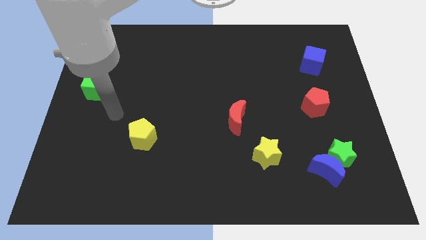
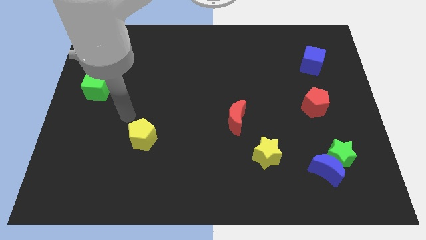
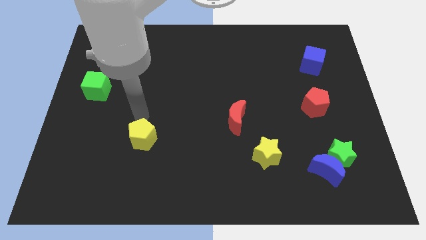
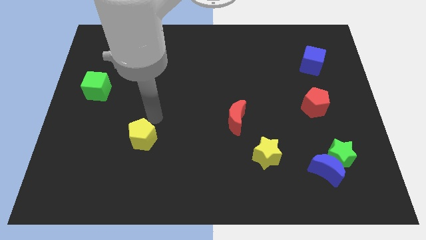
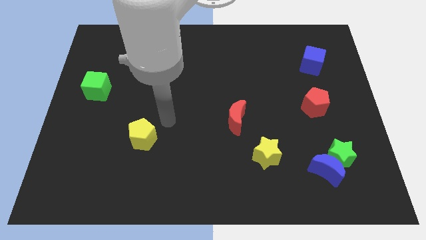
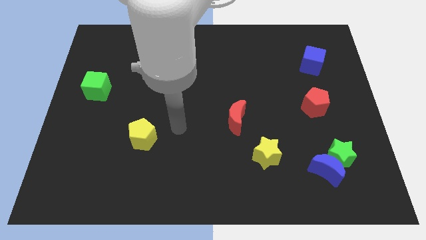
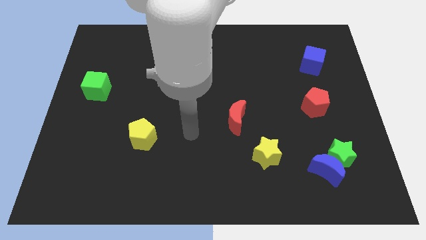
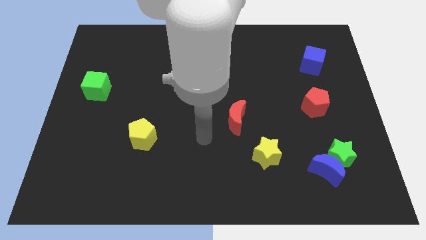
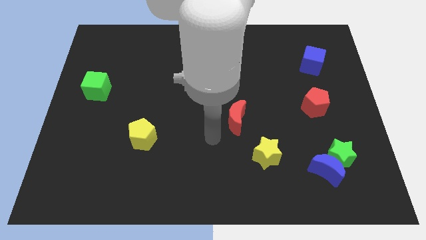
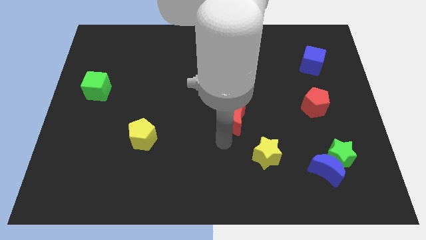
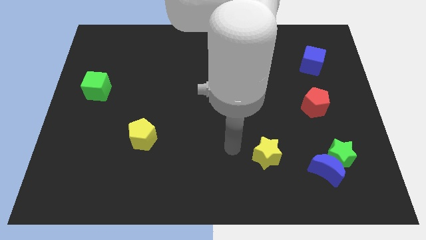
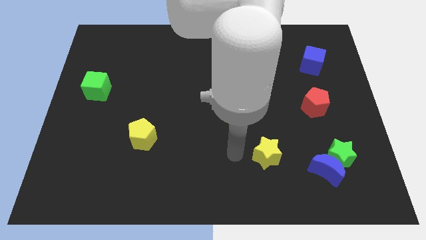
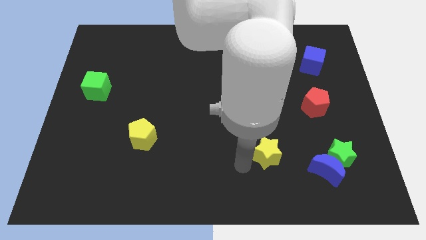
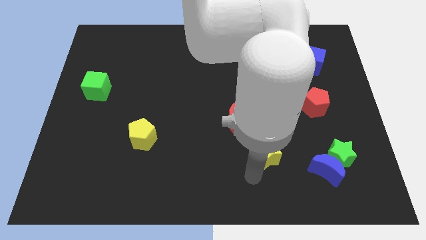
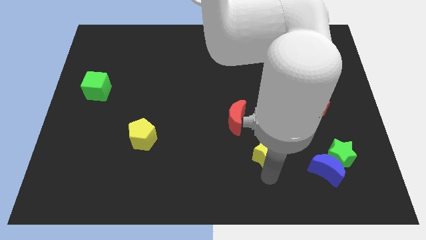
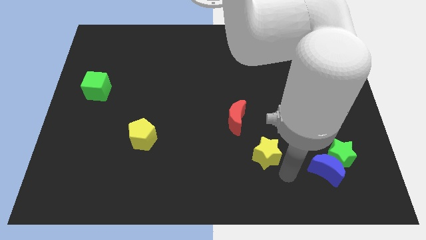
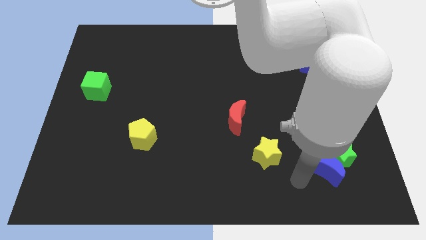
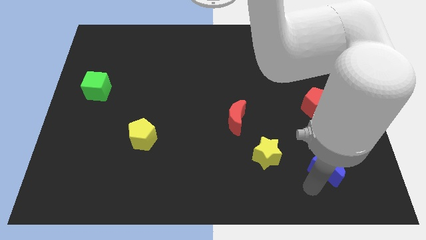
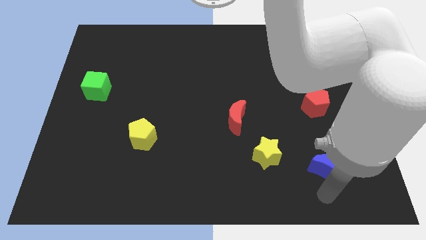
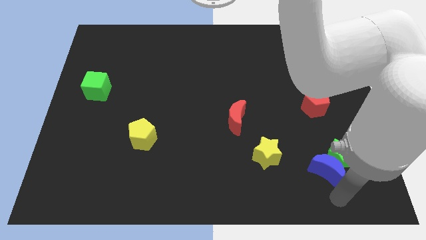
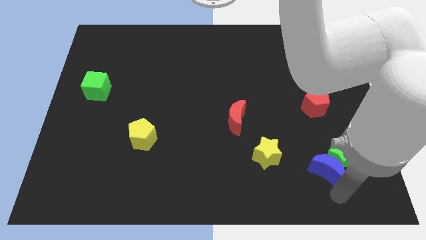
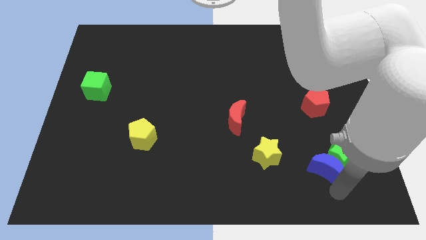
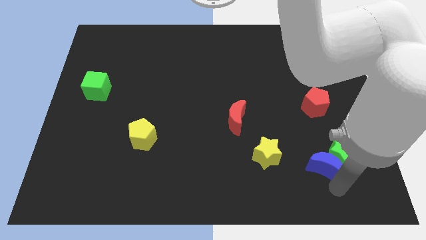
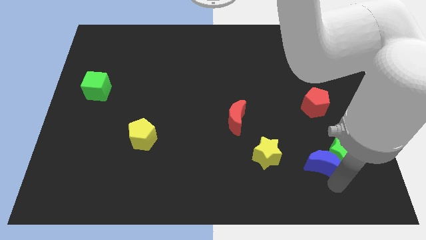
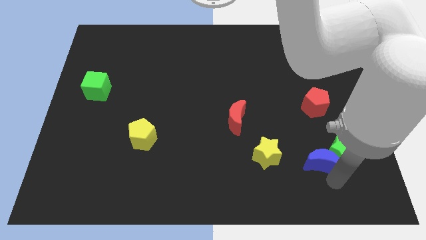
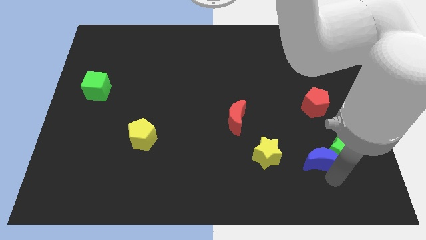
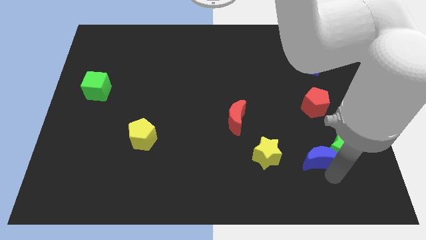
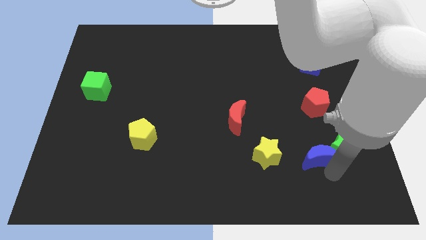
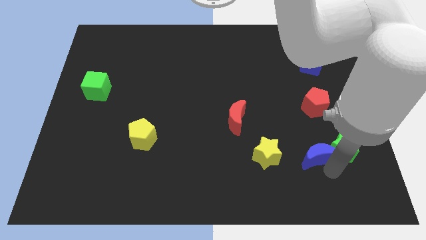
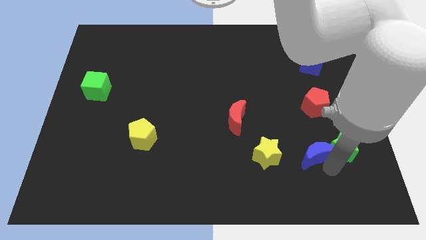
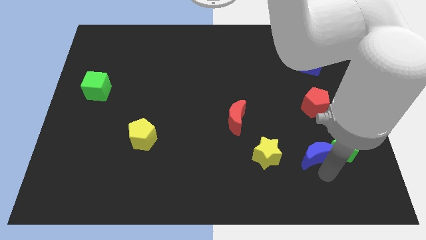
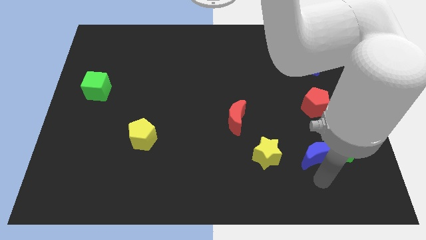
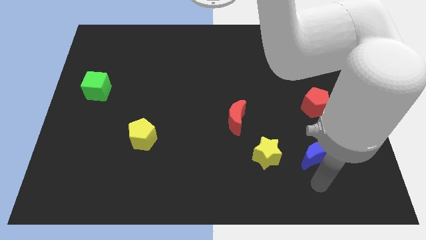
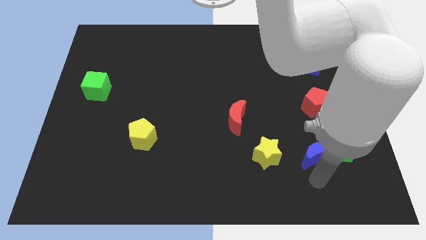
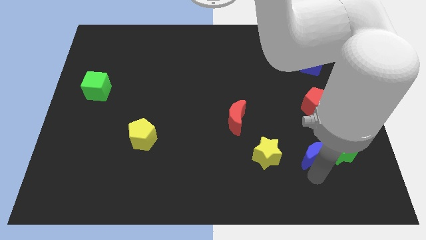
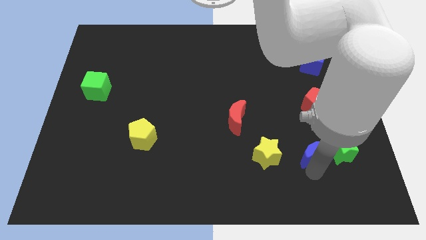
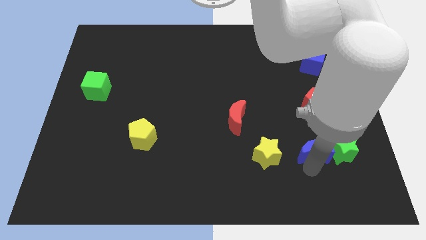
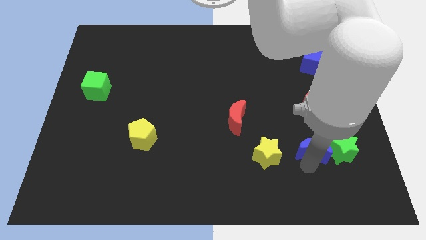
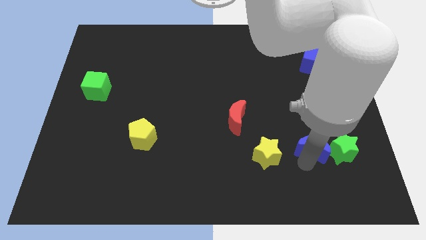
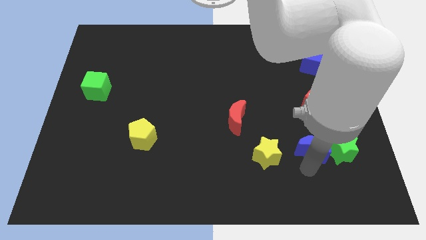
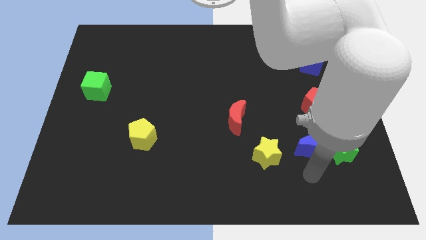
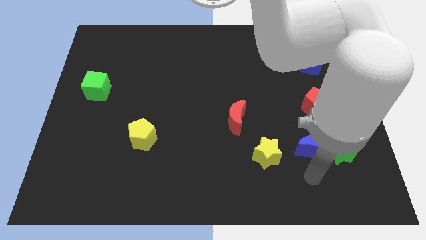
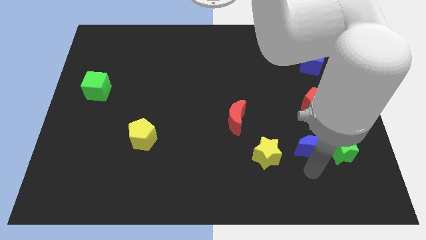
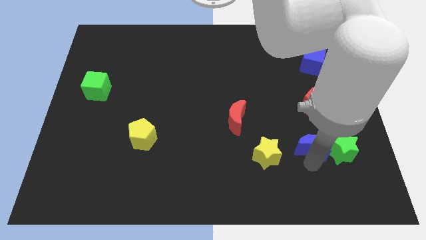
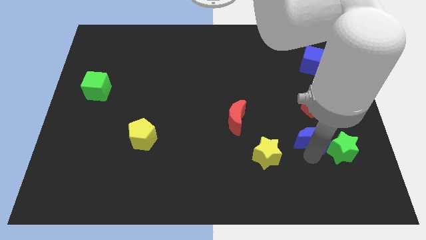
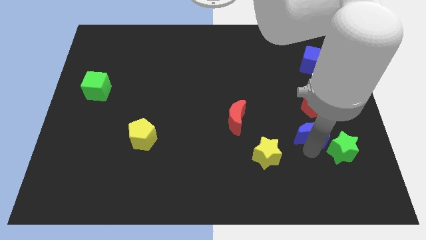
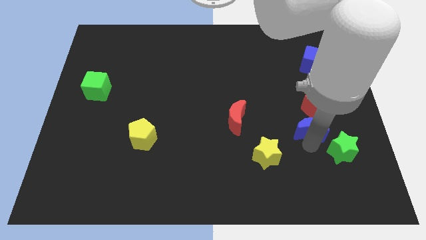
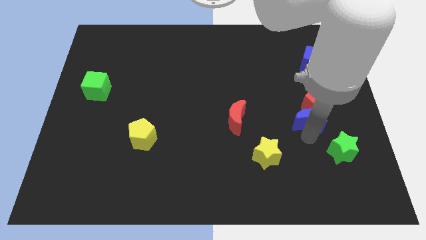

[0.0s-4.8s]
move the blue moon next to the red pentagon

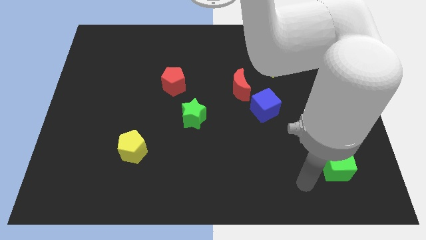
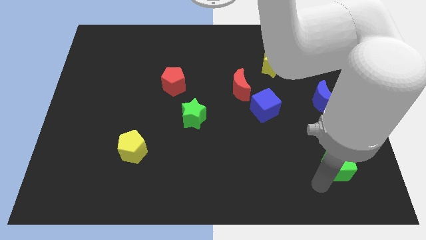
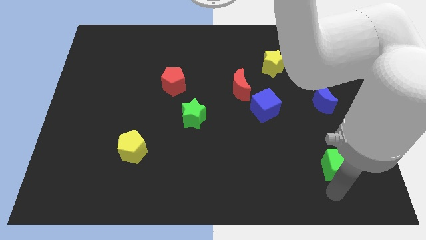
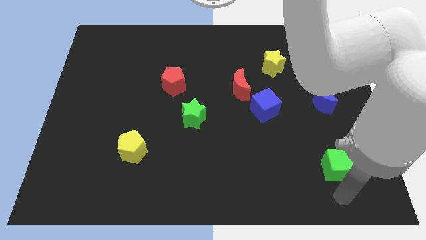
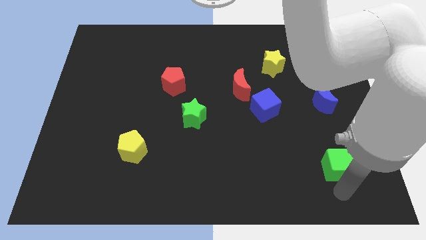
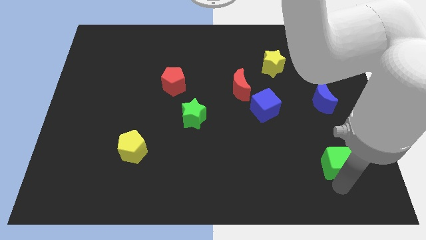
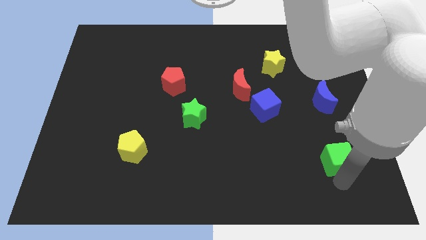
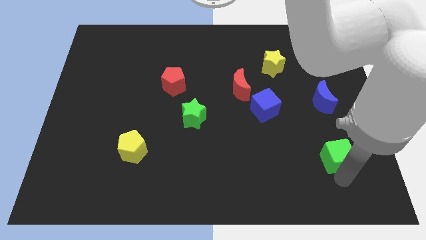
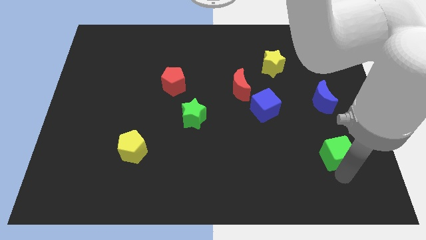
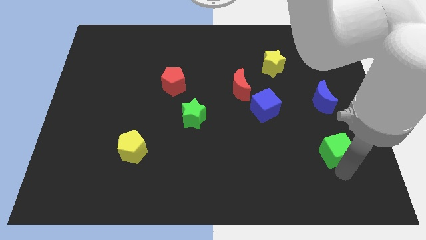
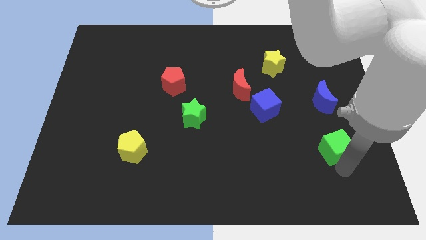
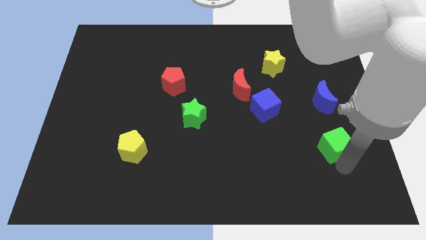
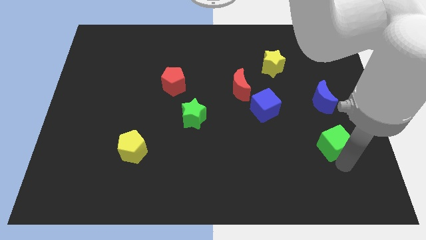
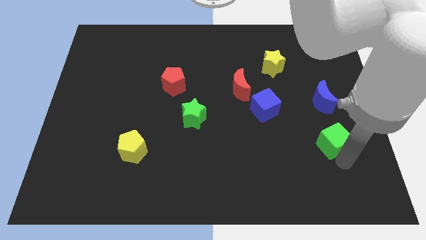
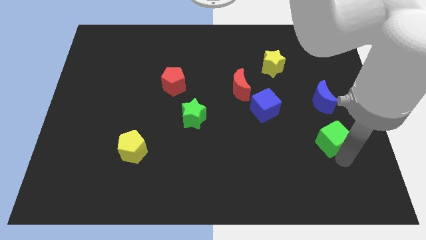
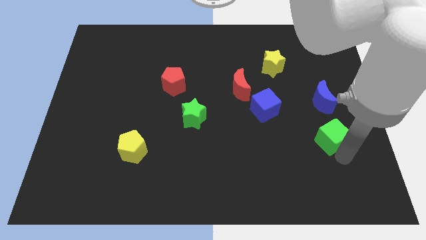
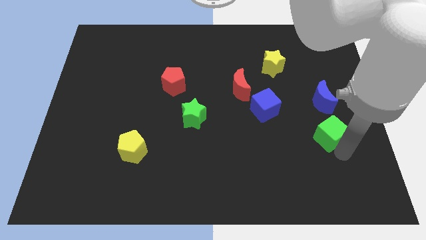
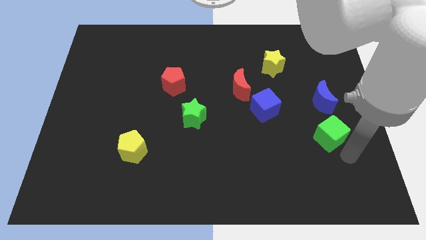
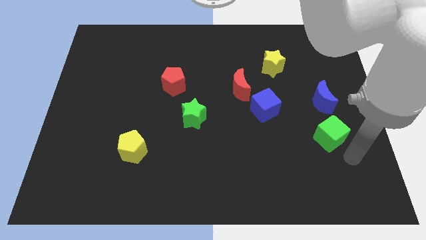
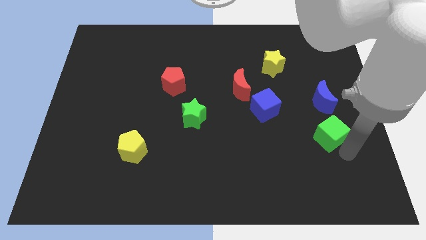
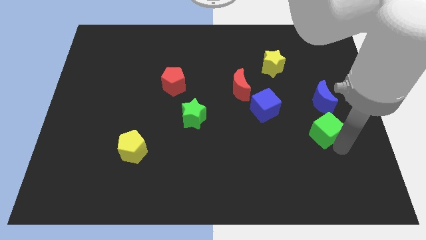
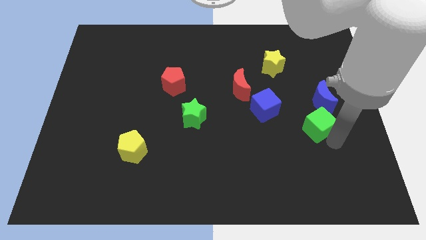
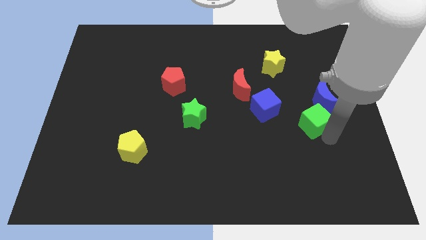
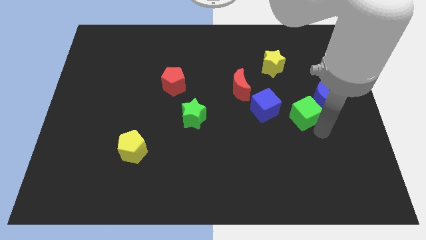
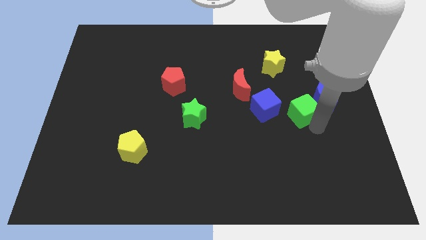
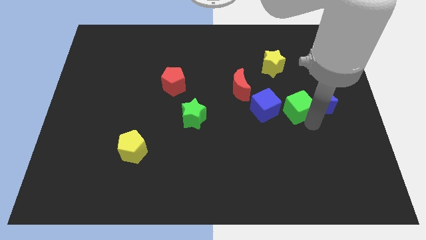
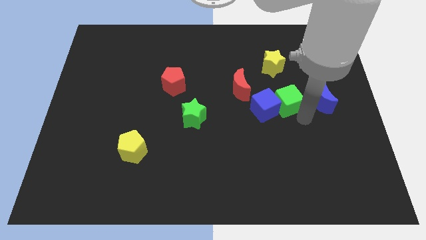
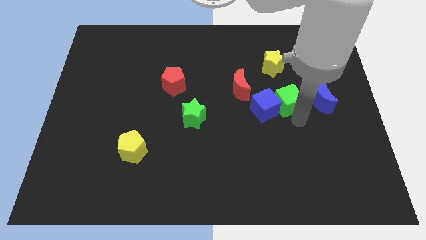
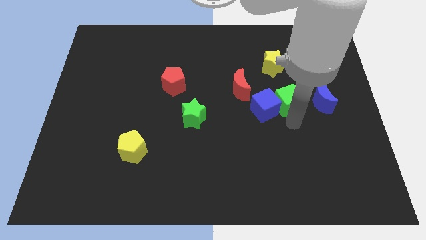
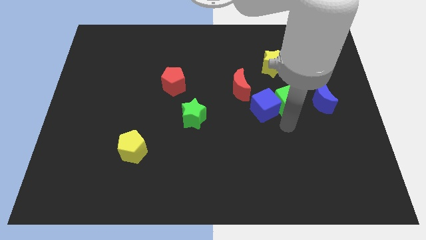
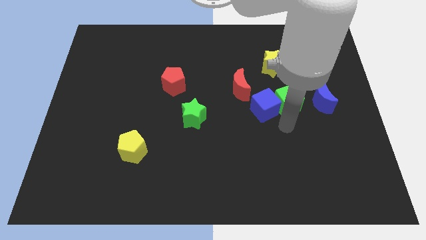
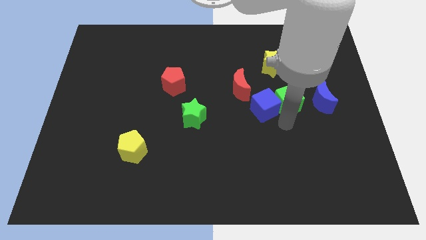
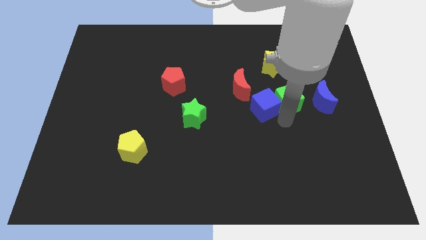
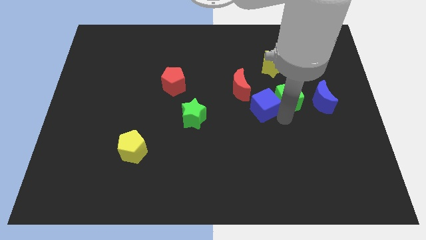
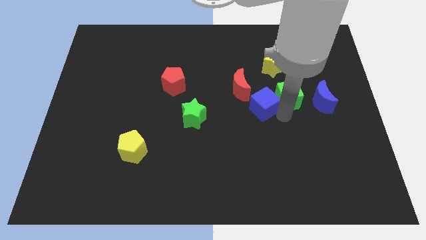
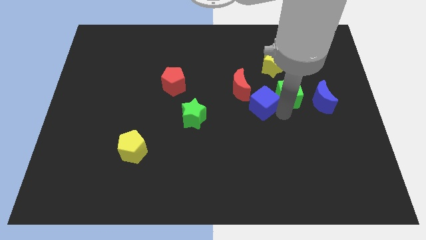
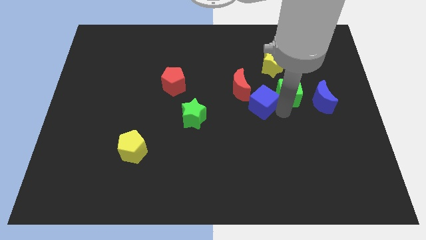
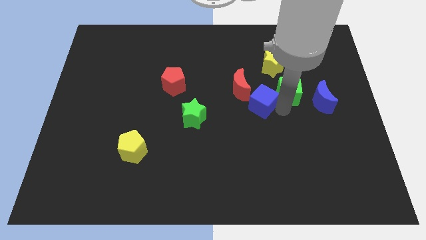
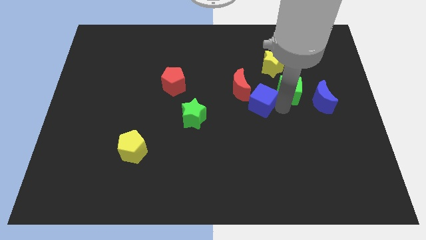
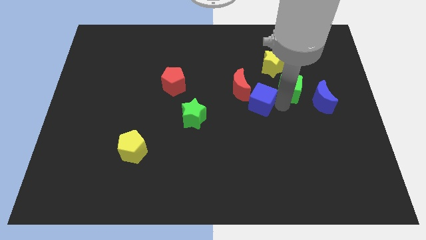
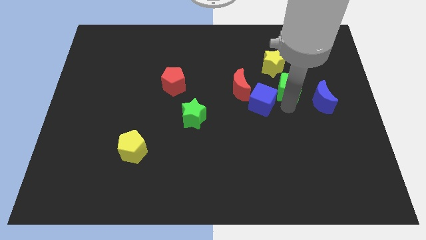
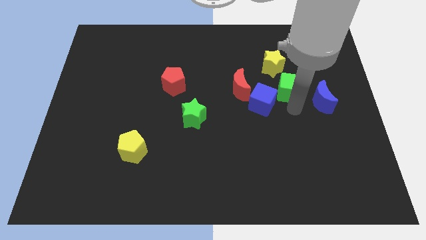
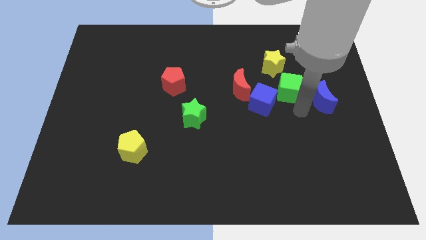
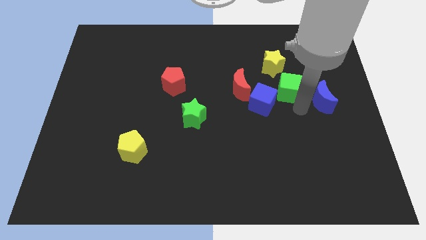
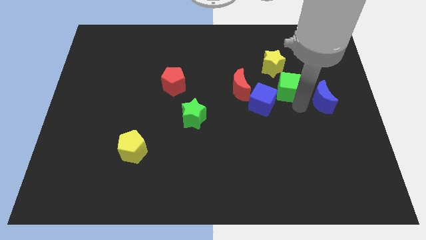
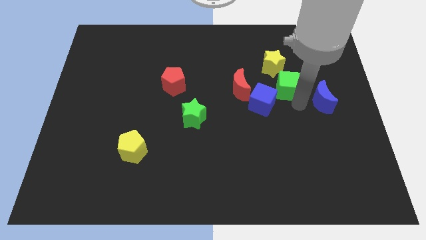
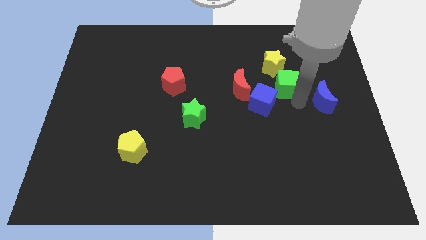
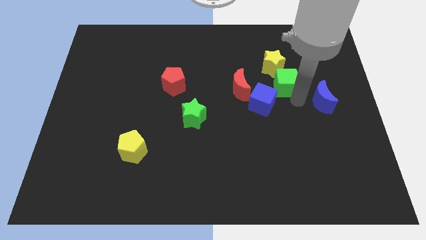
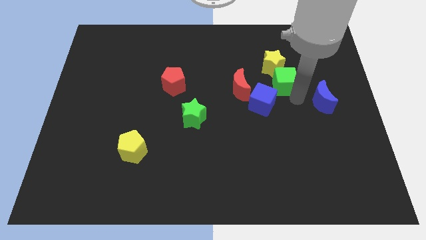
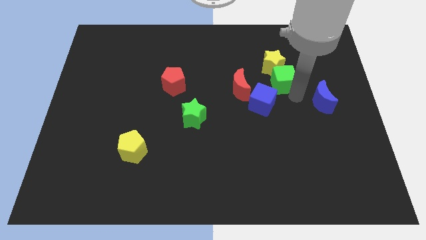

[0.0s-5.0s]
slide the green cube towards the yellow star
